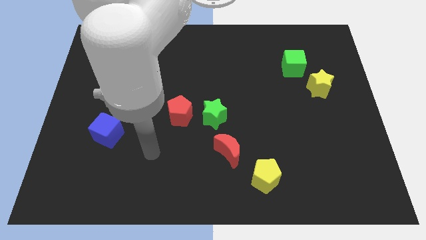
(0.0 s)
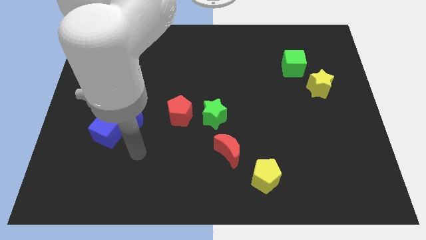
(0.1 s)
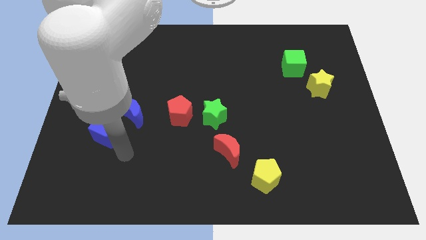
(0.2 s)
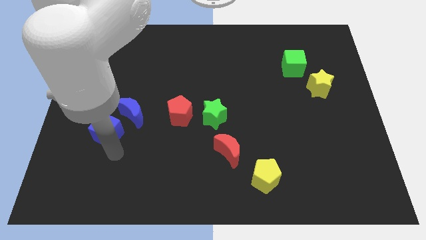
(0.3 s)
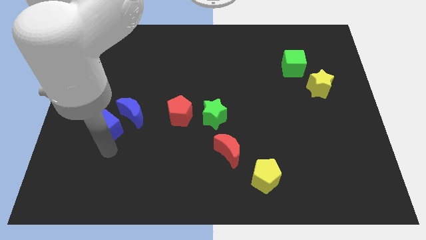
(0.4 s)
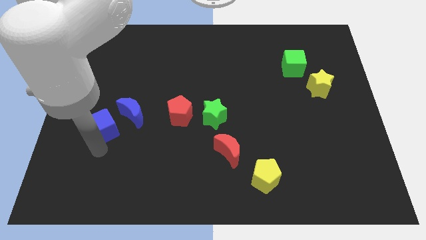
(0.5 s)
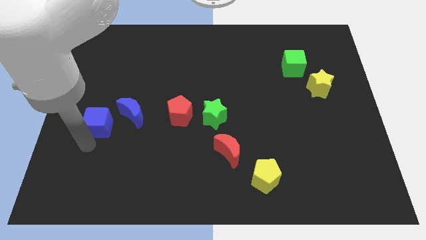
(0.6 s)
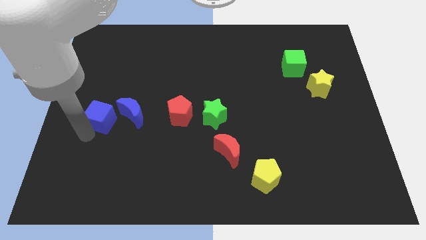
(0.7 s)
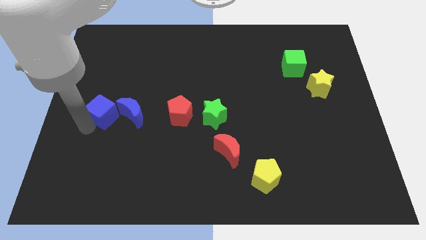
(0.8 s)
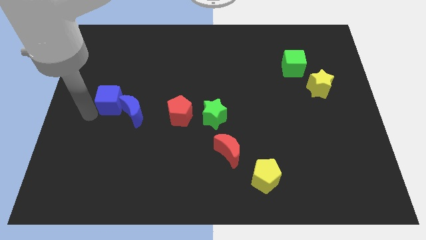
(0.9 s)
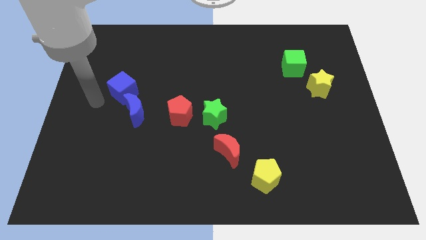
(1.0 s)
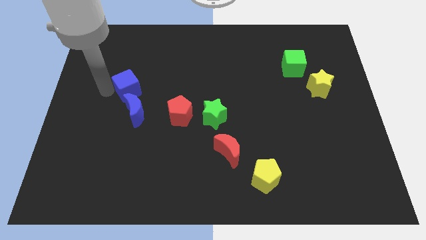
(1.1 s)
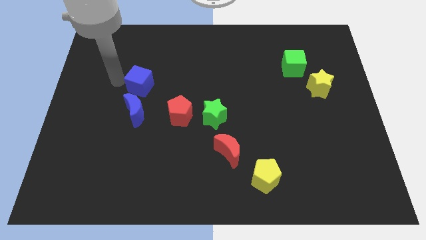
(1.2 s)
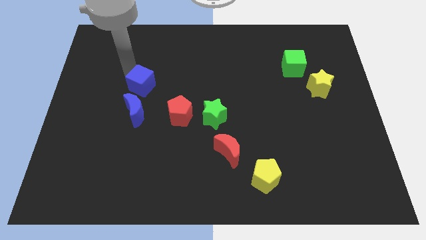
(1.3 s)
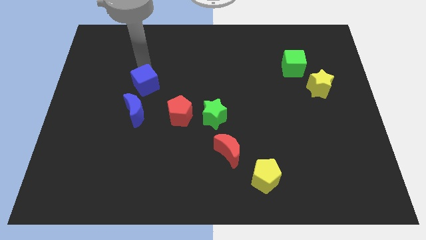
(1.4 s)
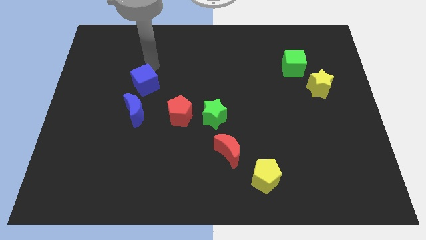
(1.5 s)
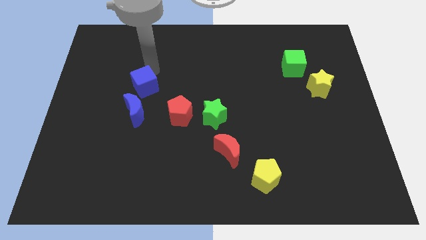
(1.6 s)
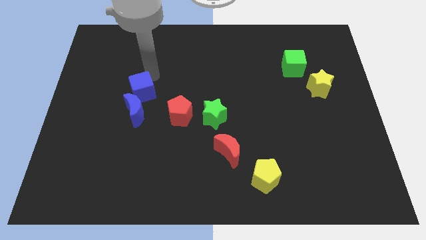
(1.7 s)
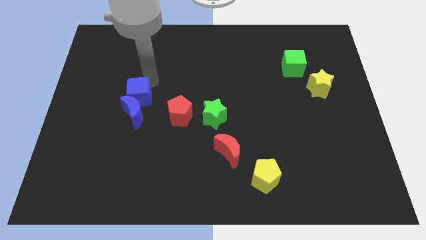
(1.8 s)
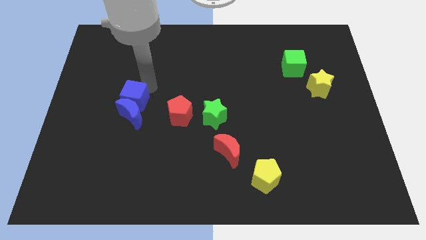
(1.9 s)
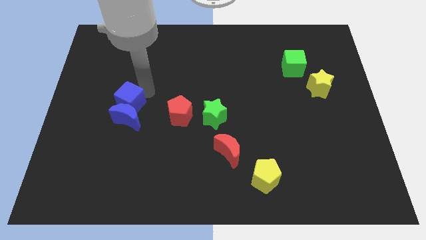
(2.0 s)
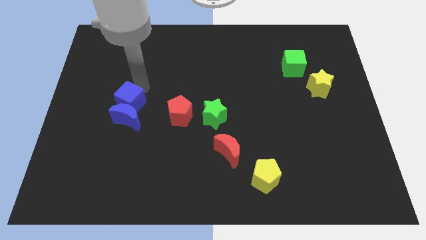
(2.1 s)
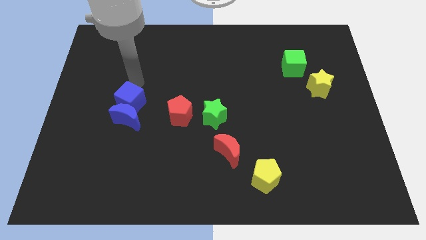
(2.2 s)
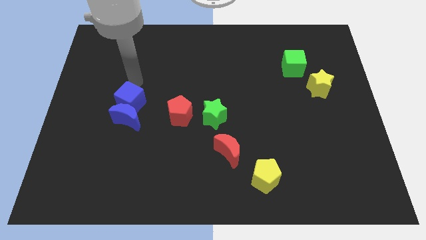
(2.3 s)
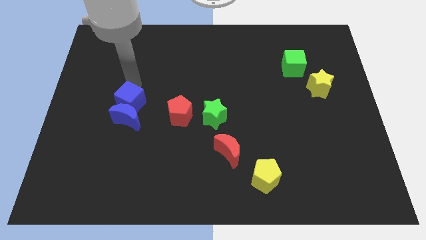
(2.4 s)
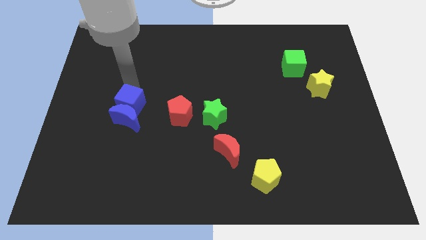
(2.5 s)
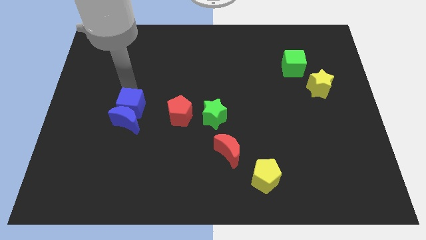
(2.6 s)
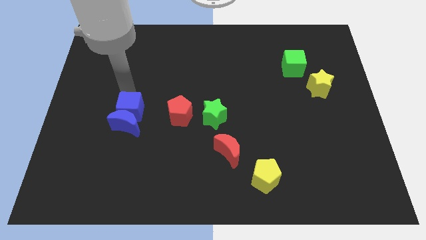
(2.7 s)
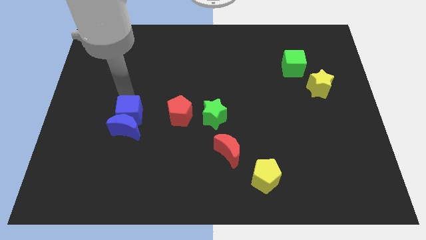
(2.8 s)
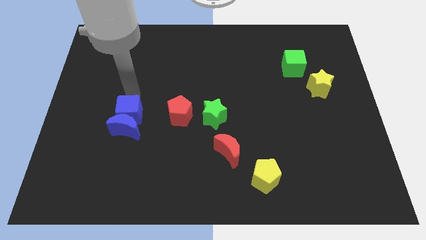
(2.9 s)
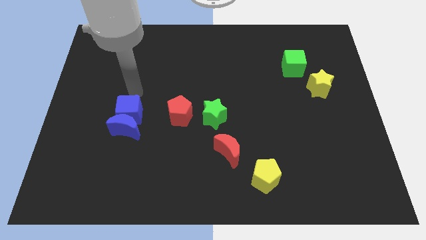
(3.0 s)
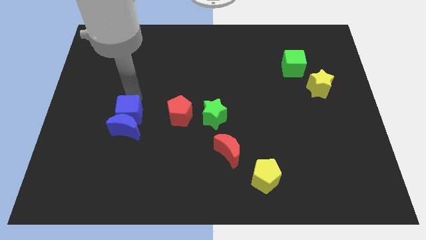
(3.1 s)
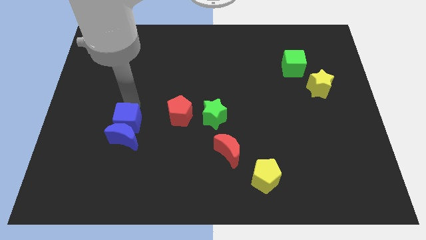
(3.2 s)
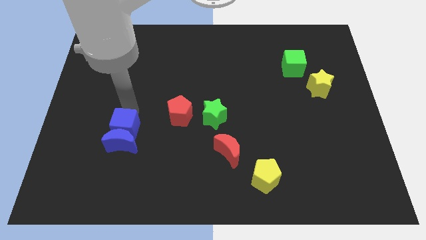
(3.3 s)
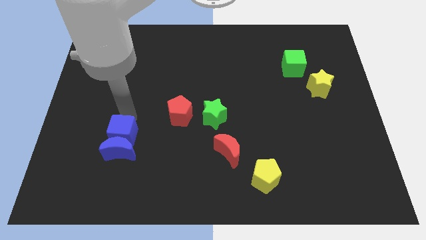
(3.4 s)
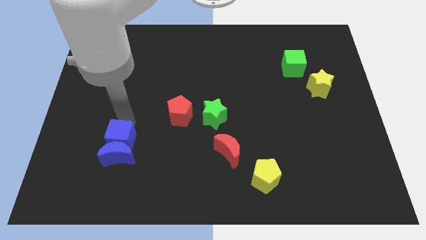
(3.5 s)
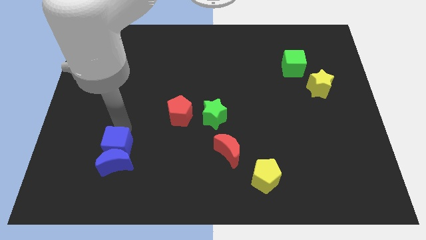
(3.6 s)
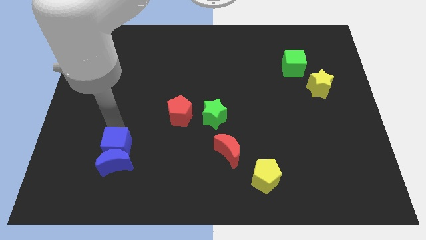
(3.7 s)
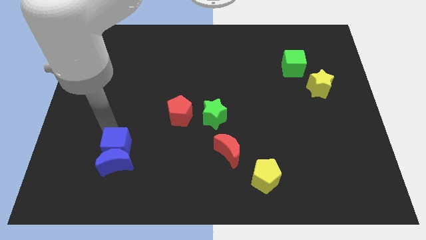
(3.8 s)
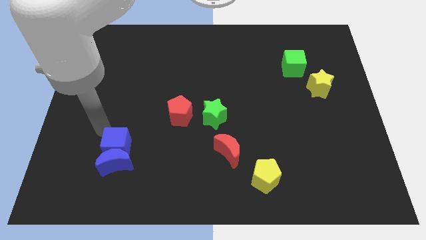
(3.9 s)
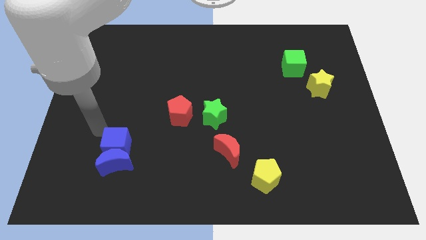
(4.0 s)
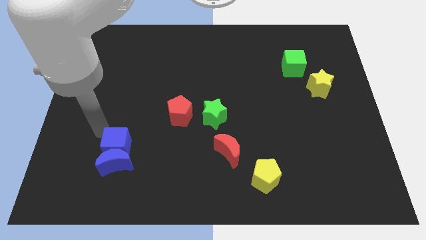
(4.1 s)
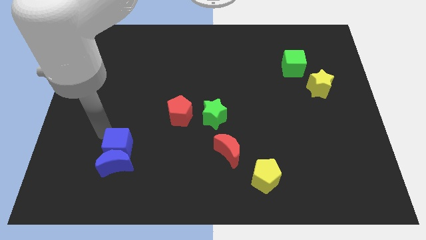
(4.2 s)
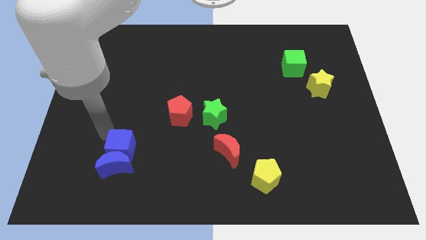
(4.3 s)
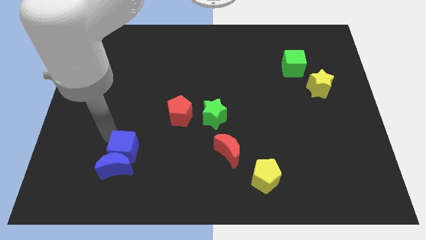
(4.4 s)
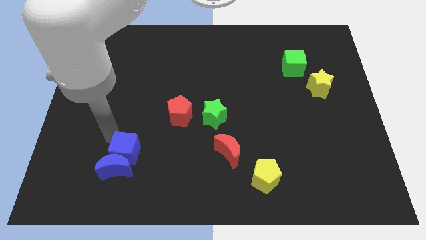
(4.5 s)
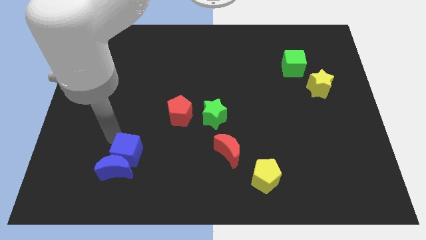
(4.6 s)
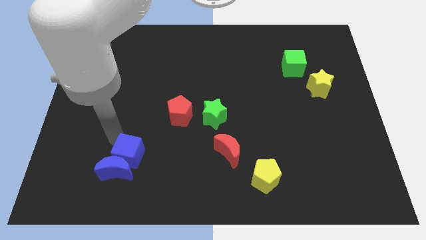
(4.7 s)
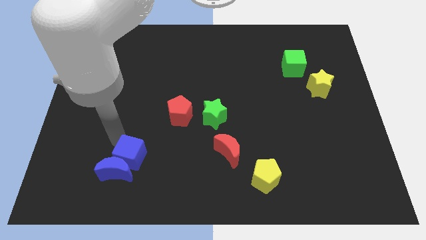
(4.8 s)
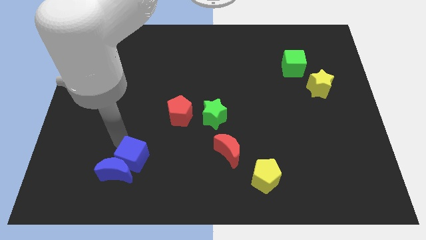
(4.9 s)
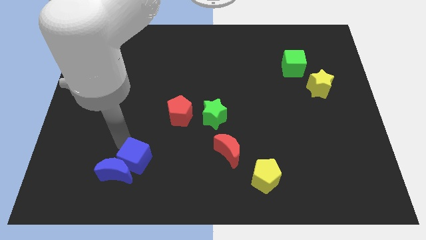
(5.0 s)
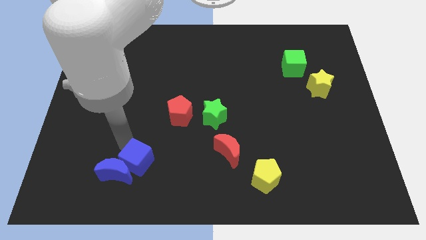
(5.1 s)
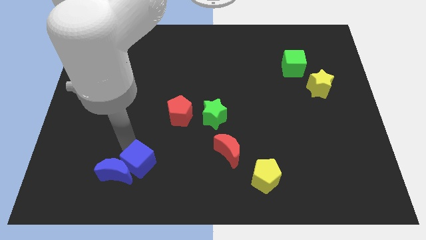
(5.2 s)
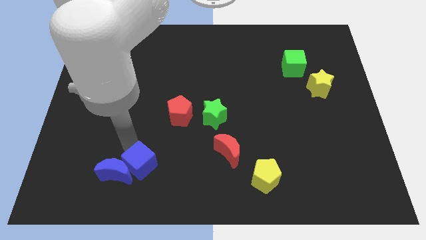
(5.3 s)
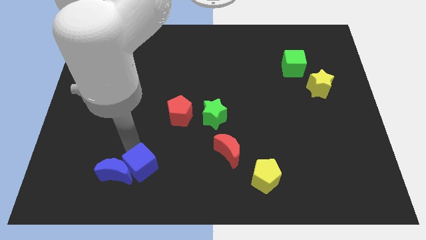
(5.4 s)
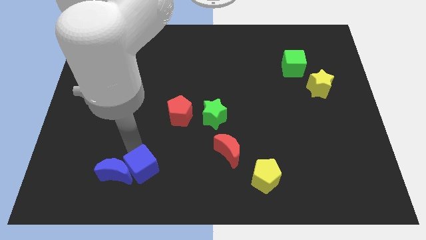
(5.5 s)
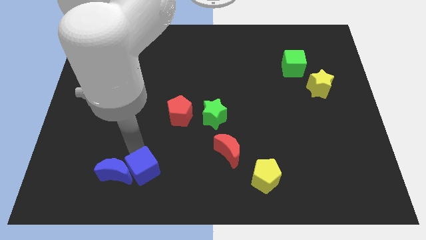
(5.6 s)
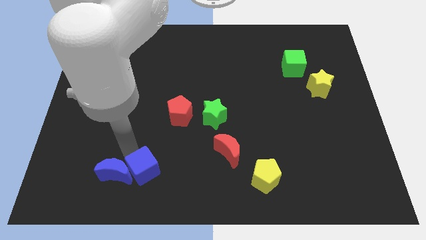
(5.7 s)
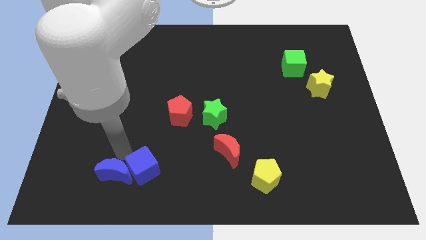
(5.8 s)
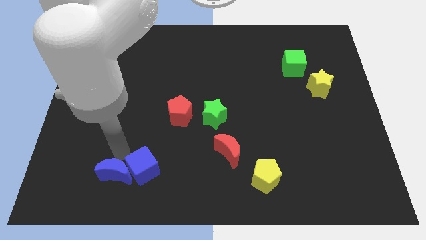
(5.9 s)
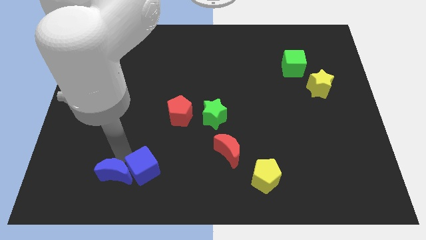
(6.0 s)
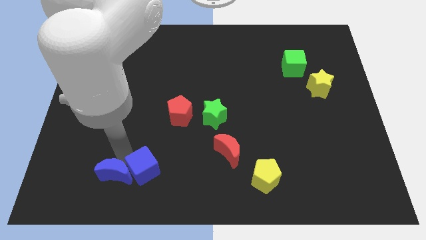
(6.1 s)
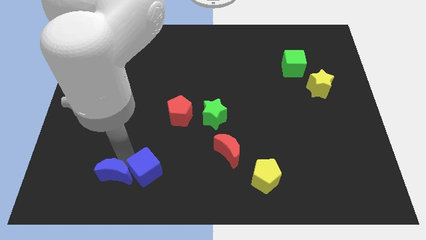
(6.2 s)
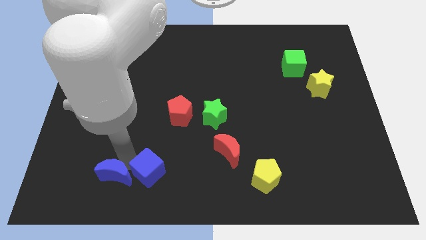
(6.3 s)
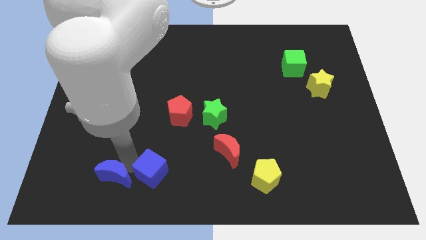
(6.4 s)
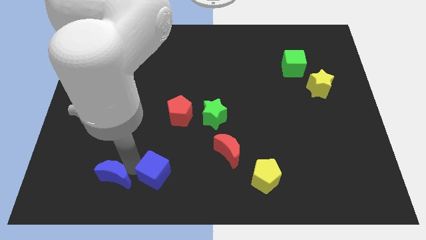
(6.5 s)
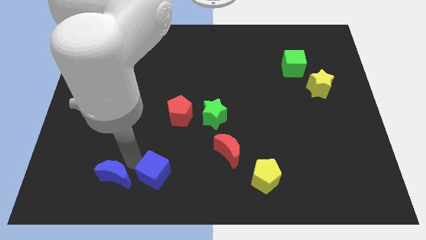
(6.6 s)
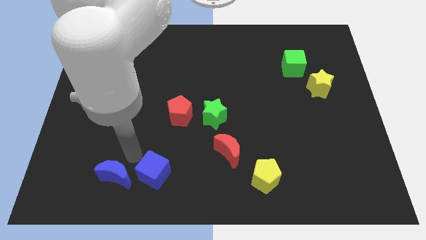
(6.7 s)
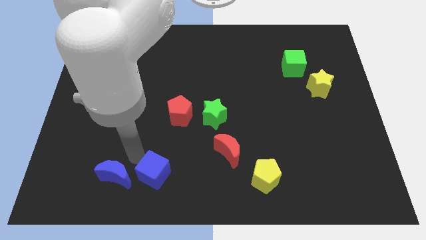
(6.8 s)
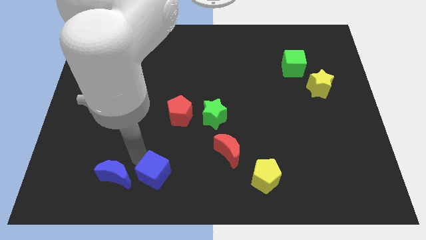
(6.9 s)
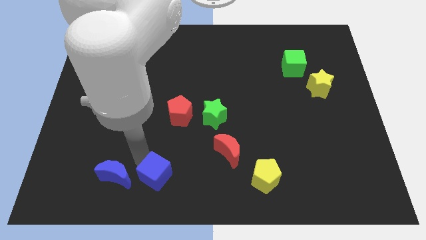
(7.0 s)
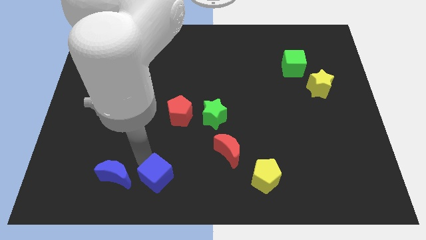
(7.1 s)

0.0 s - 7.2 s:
move the blue cube to the bottom side

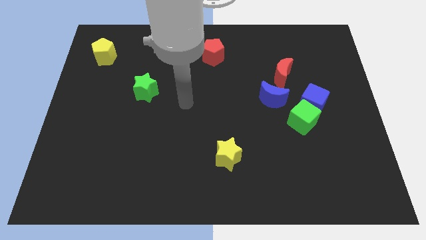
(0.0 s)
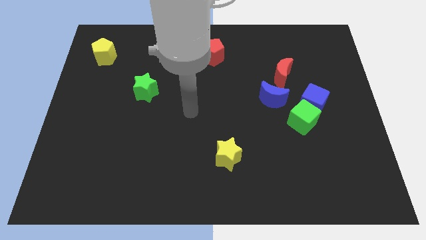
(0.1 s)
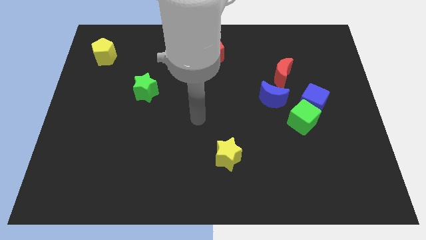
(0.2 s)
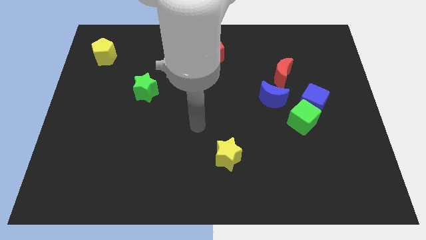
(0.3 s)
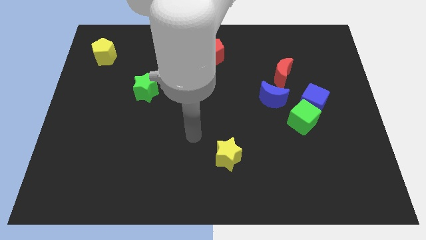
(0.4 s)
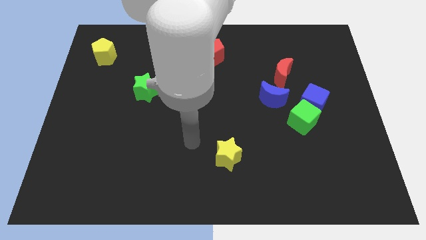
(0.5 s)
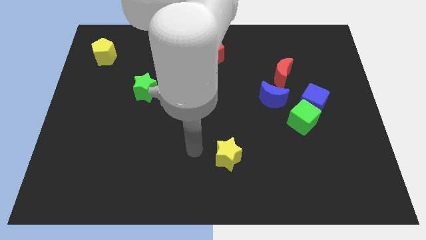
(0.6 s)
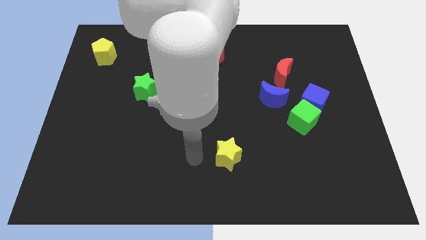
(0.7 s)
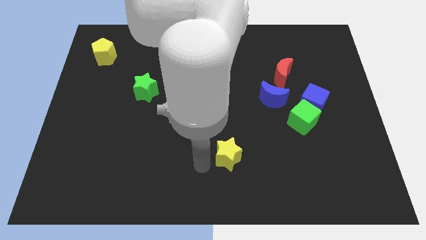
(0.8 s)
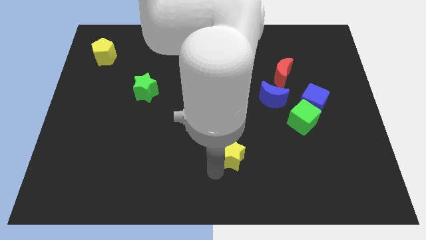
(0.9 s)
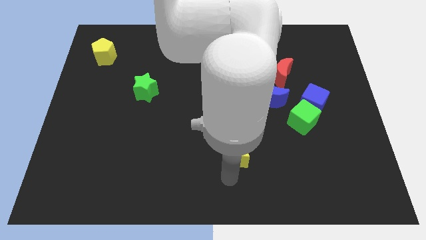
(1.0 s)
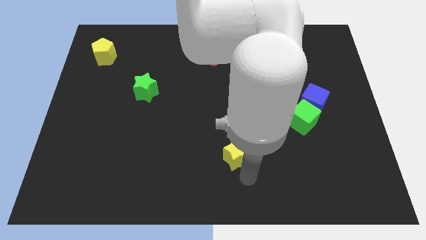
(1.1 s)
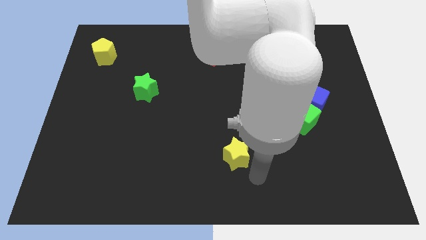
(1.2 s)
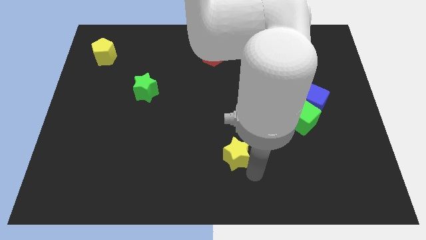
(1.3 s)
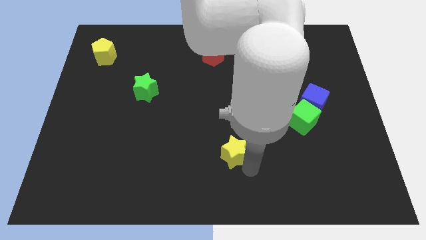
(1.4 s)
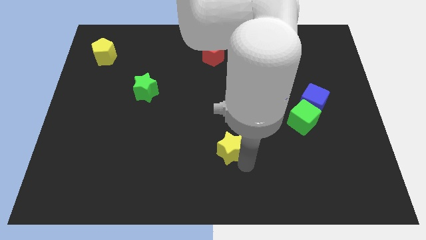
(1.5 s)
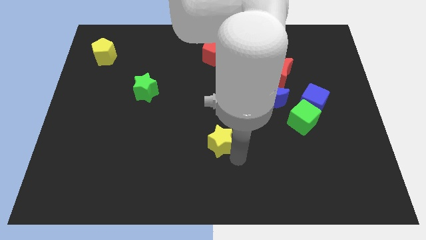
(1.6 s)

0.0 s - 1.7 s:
slide the yellow star to the middle
